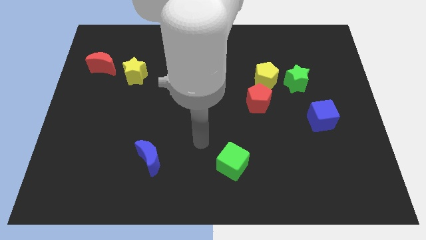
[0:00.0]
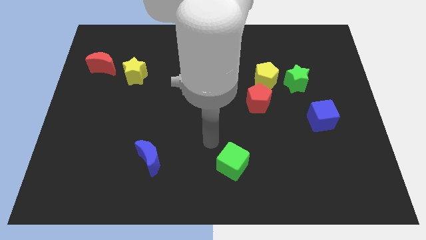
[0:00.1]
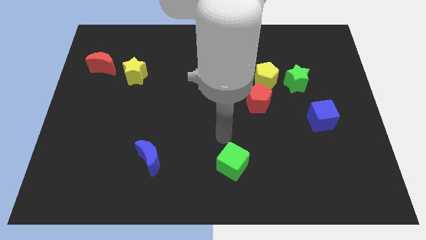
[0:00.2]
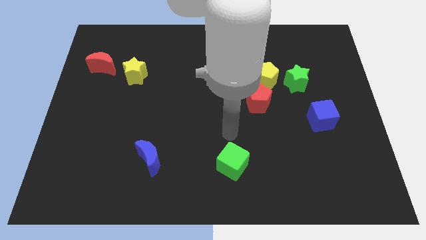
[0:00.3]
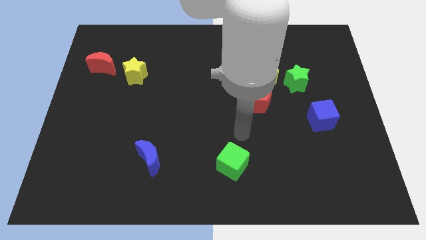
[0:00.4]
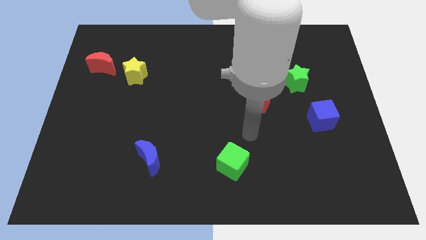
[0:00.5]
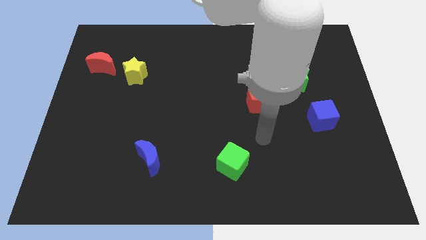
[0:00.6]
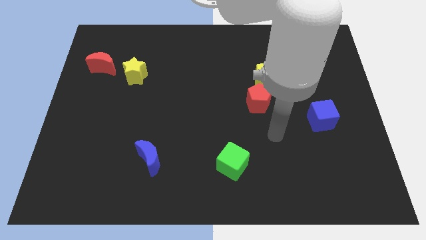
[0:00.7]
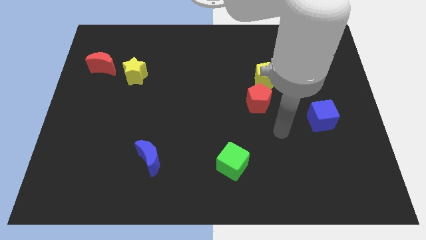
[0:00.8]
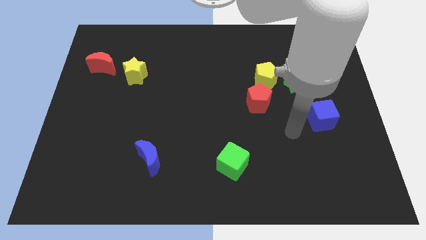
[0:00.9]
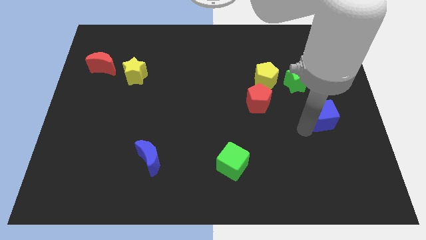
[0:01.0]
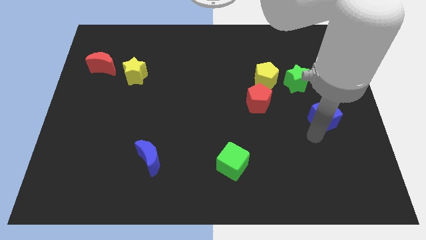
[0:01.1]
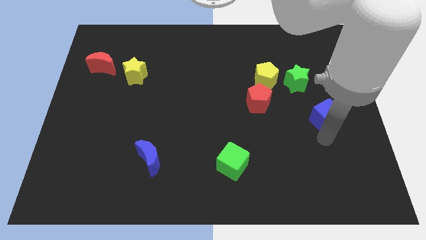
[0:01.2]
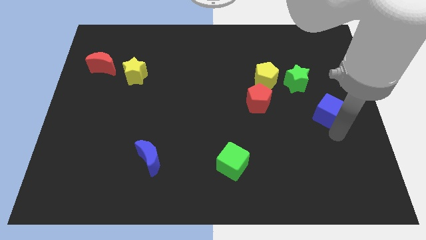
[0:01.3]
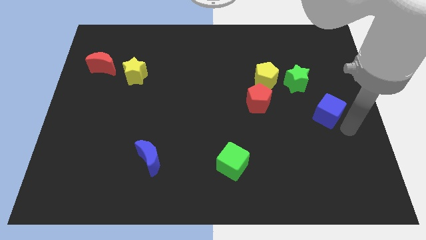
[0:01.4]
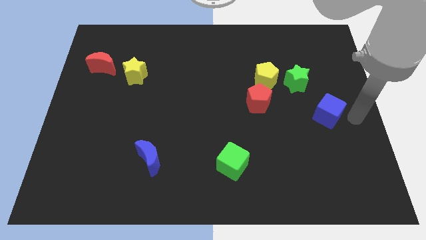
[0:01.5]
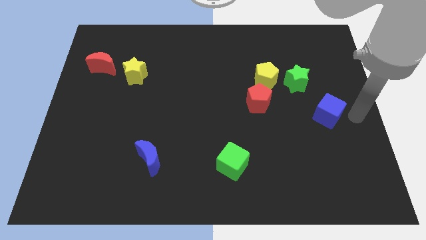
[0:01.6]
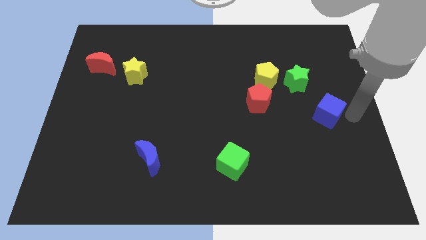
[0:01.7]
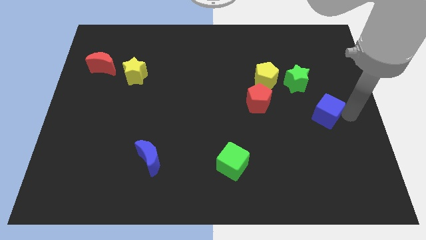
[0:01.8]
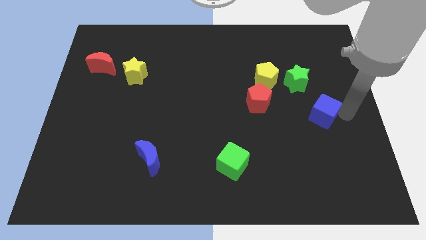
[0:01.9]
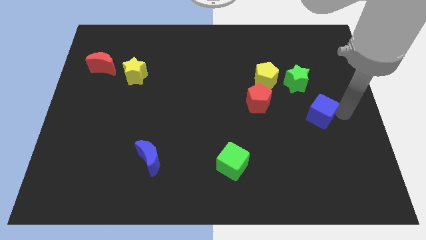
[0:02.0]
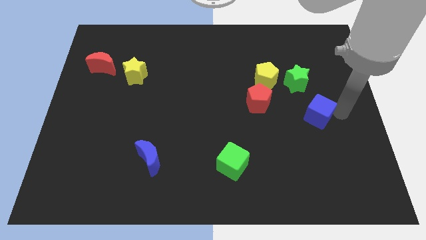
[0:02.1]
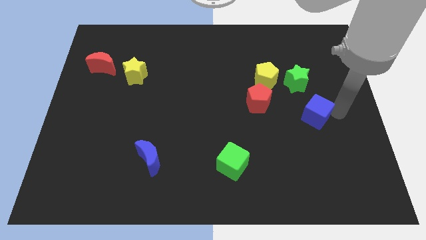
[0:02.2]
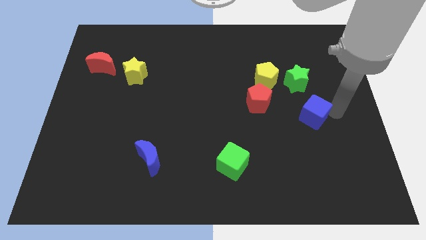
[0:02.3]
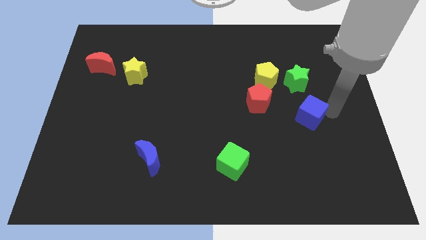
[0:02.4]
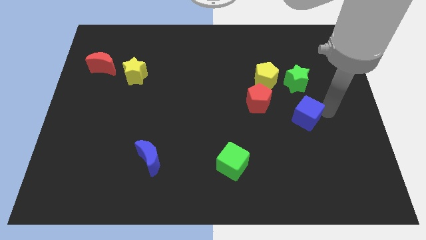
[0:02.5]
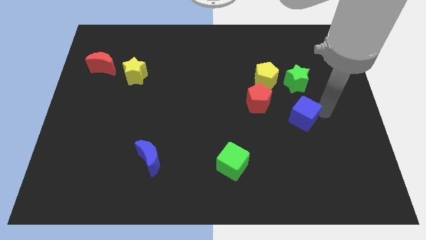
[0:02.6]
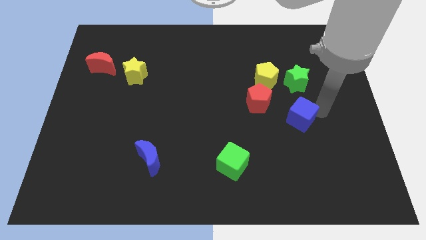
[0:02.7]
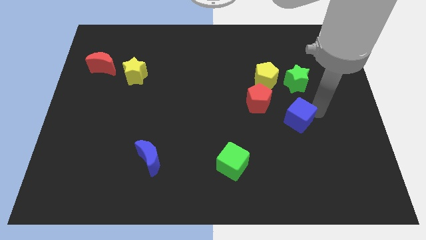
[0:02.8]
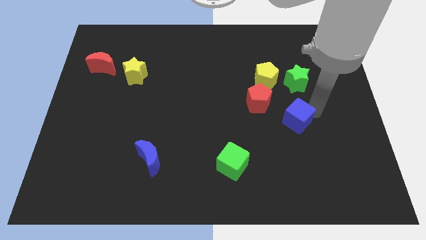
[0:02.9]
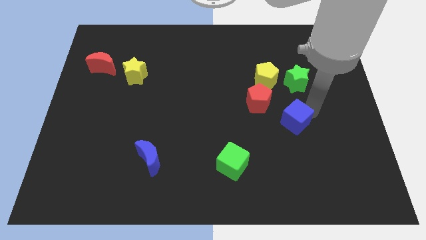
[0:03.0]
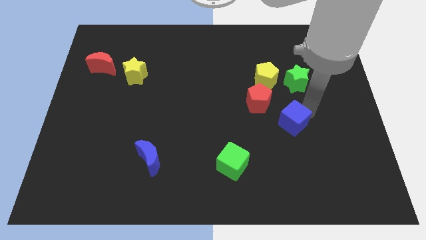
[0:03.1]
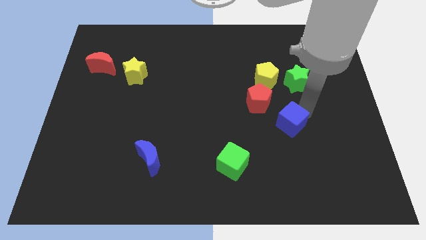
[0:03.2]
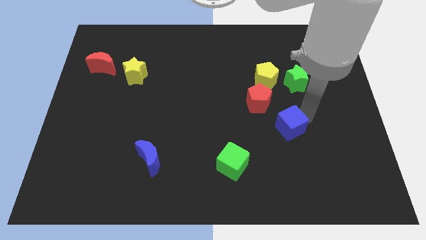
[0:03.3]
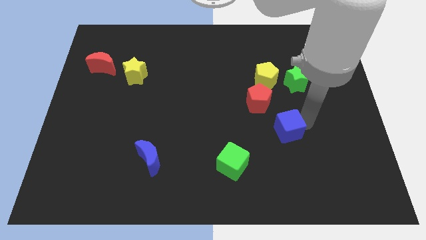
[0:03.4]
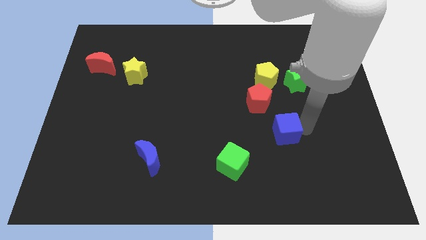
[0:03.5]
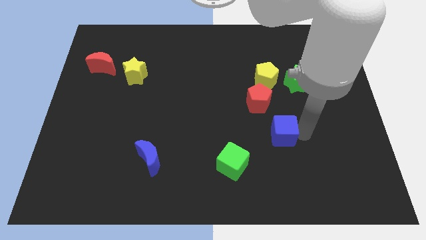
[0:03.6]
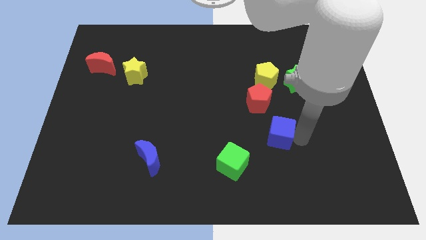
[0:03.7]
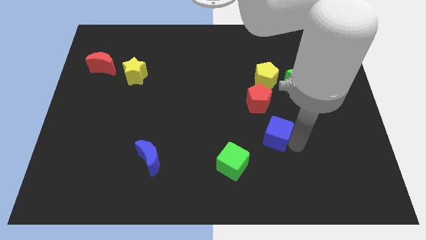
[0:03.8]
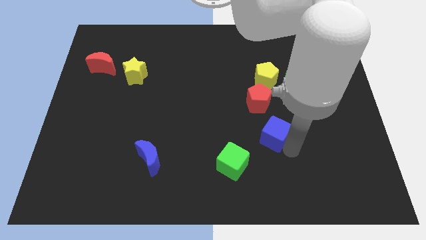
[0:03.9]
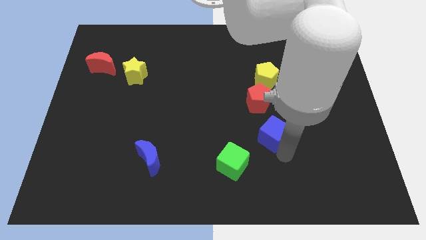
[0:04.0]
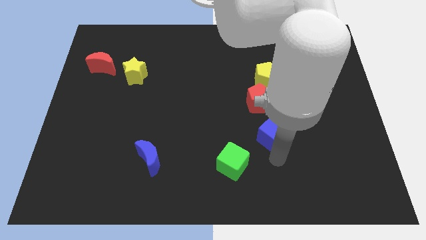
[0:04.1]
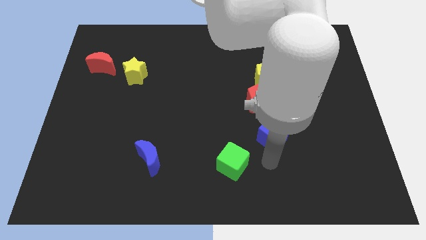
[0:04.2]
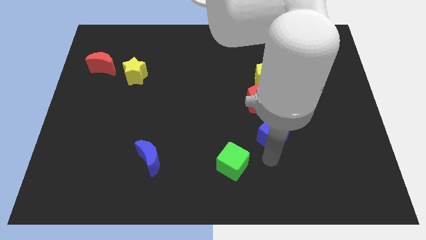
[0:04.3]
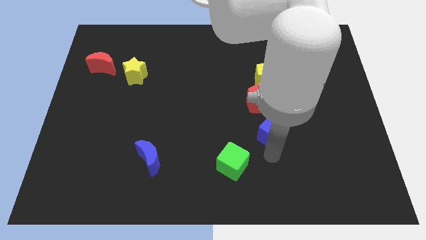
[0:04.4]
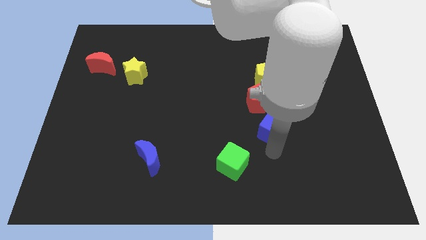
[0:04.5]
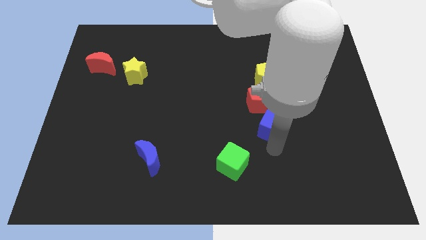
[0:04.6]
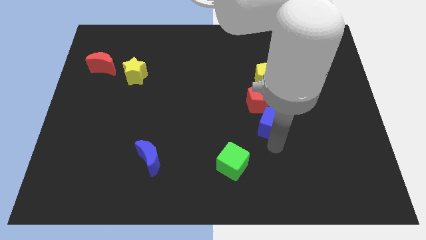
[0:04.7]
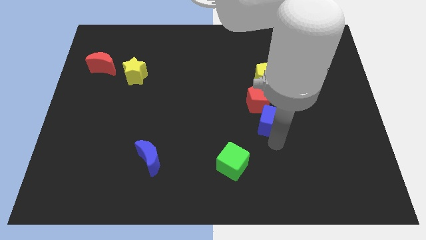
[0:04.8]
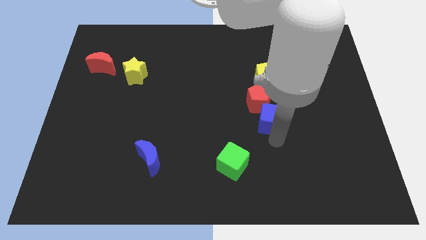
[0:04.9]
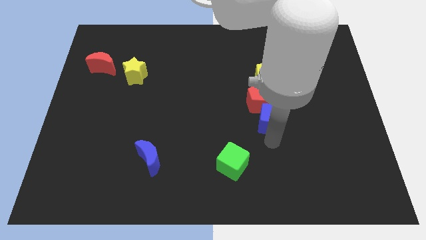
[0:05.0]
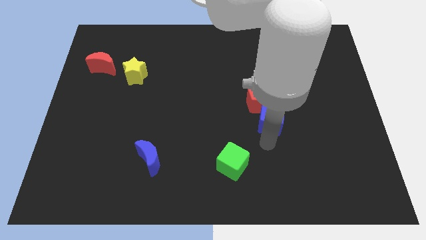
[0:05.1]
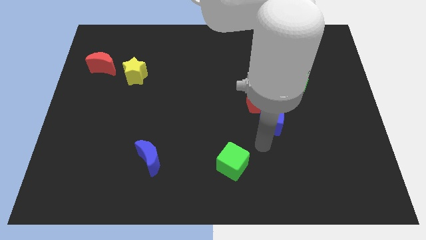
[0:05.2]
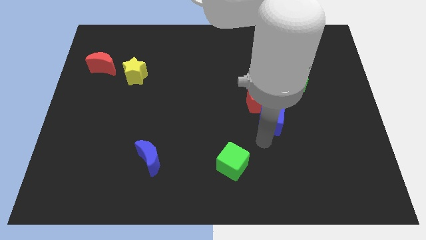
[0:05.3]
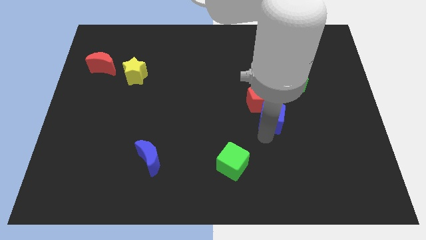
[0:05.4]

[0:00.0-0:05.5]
slide the blue cube next to the red pentagon

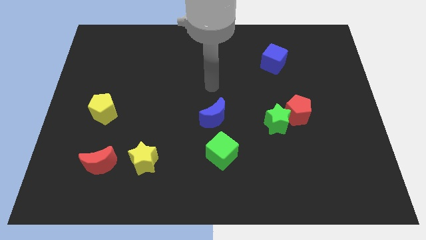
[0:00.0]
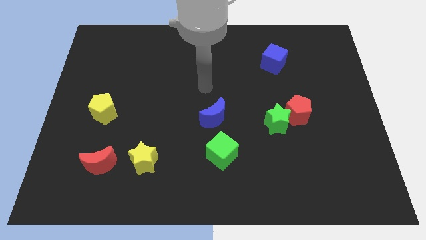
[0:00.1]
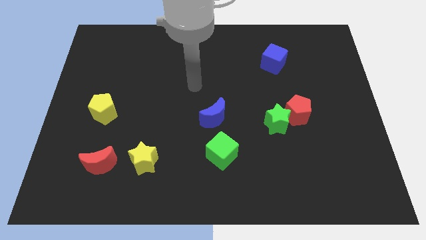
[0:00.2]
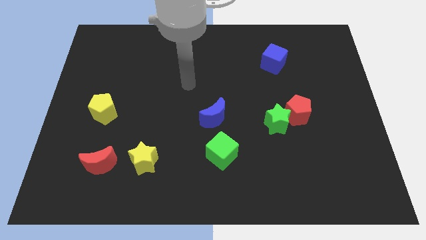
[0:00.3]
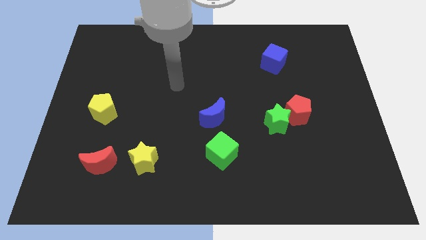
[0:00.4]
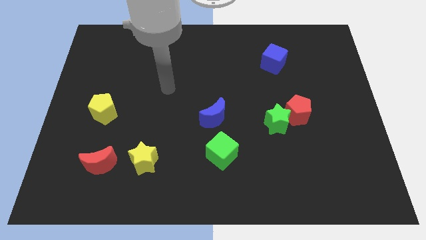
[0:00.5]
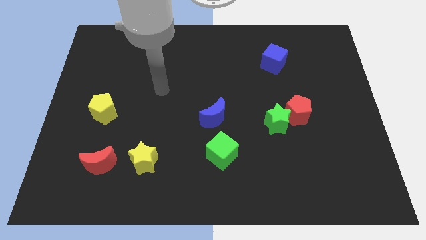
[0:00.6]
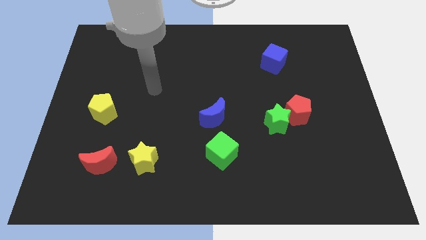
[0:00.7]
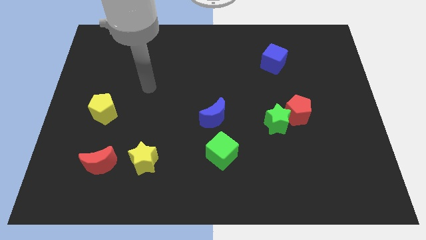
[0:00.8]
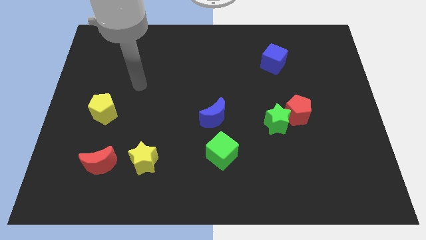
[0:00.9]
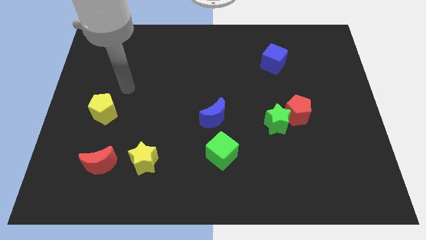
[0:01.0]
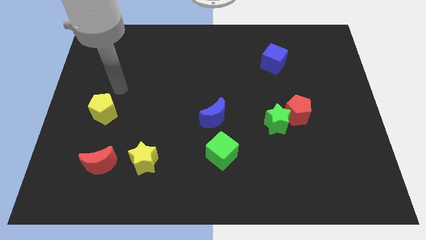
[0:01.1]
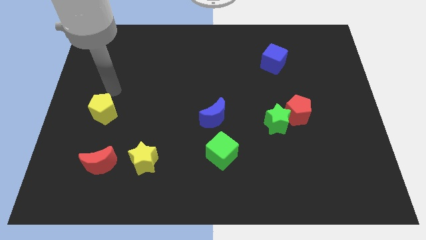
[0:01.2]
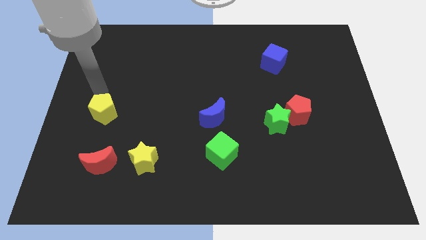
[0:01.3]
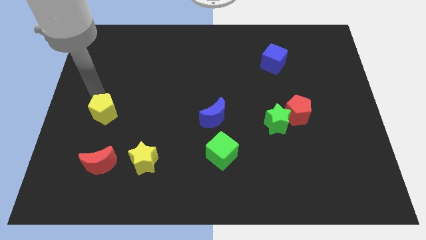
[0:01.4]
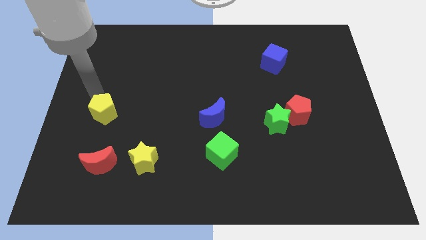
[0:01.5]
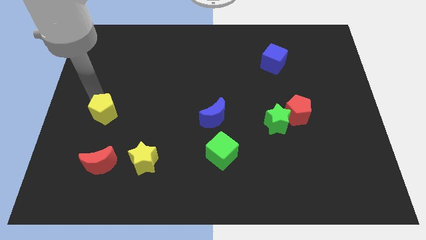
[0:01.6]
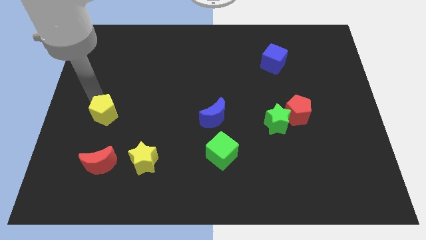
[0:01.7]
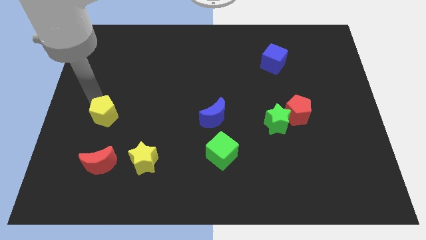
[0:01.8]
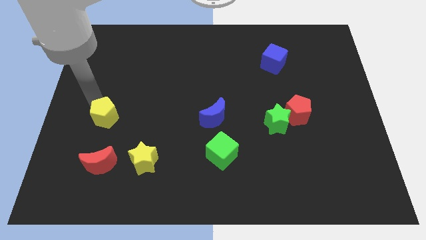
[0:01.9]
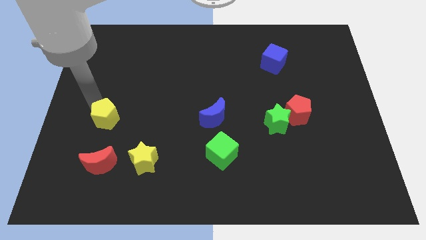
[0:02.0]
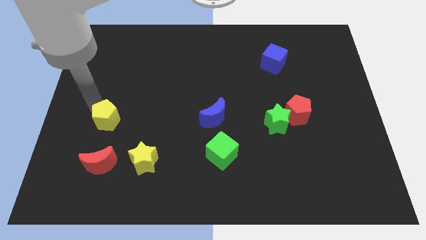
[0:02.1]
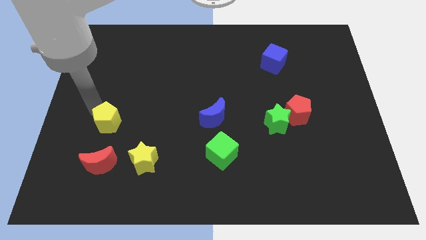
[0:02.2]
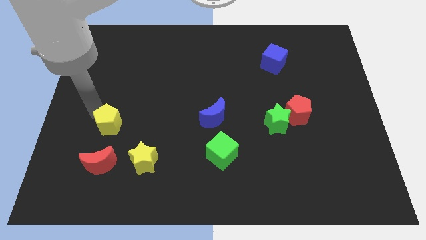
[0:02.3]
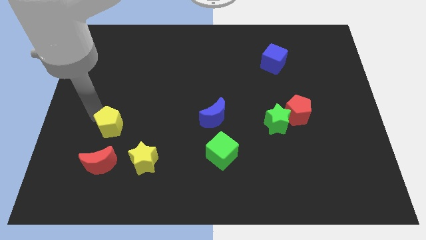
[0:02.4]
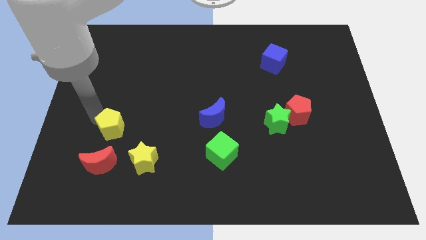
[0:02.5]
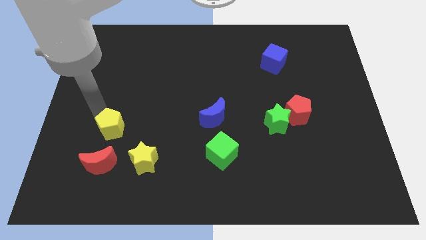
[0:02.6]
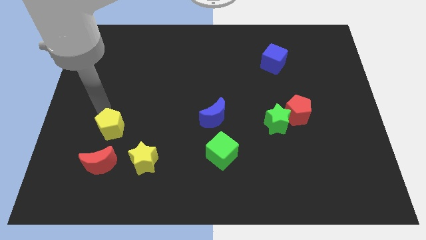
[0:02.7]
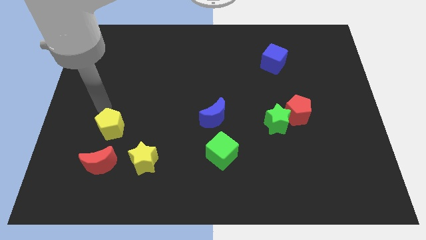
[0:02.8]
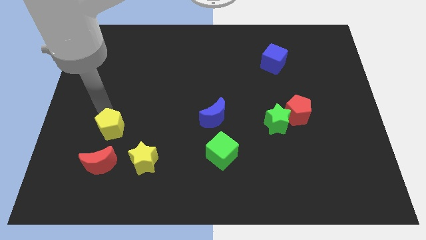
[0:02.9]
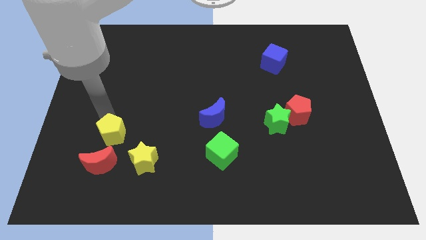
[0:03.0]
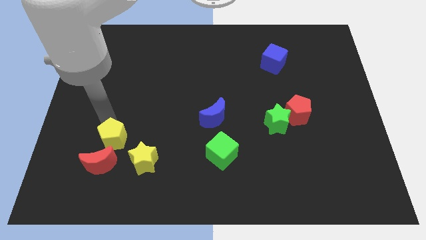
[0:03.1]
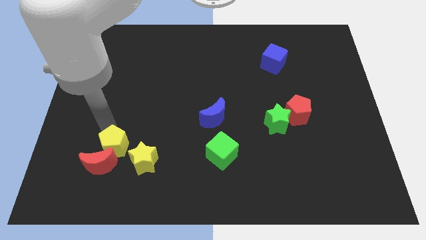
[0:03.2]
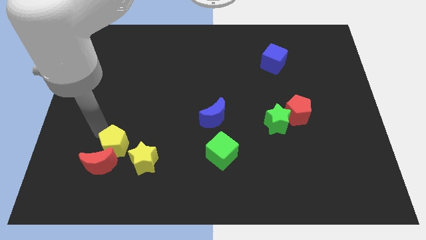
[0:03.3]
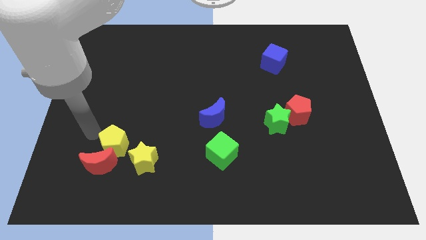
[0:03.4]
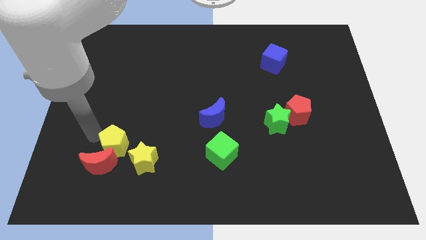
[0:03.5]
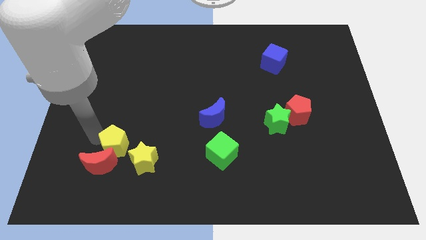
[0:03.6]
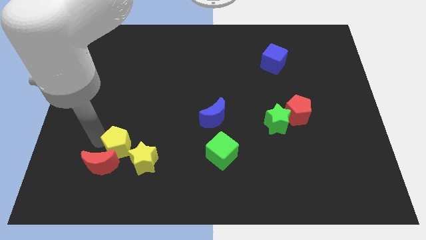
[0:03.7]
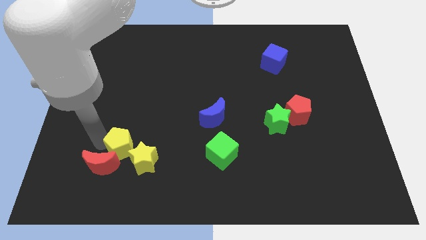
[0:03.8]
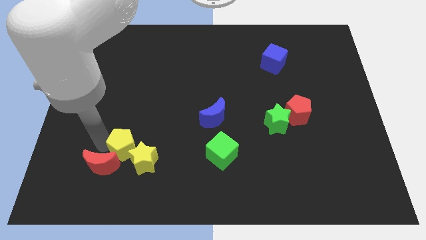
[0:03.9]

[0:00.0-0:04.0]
move the yellow pentagon next to the yellow star
